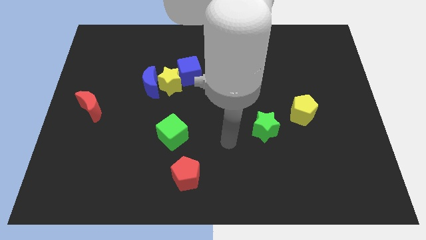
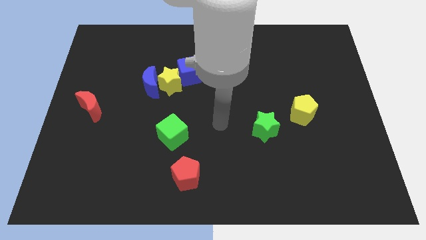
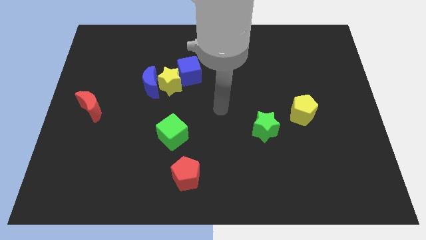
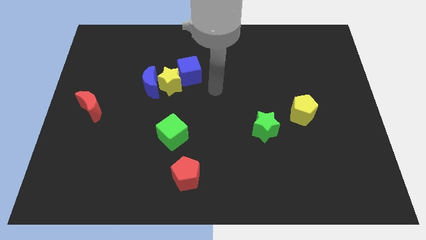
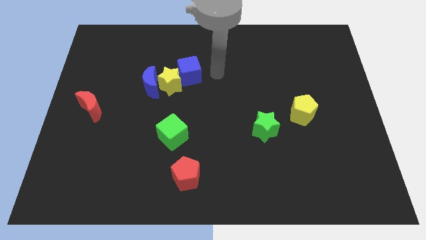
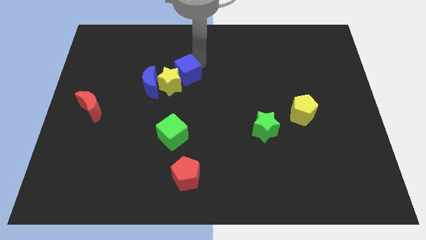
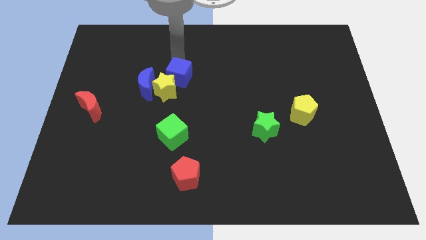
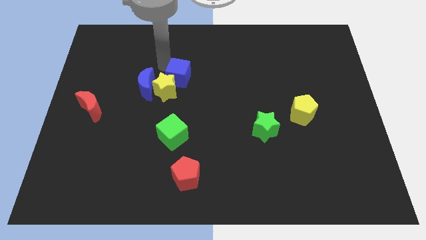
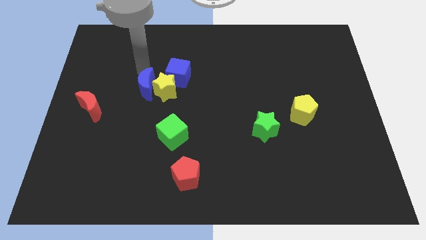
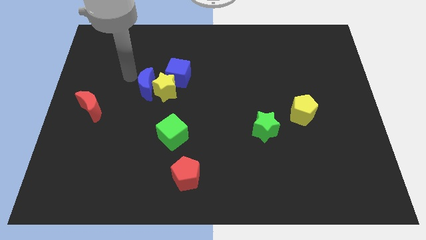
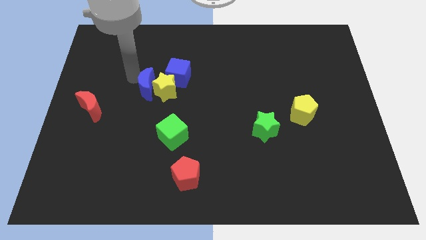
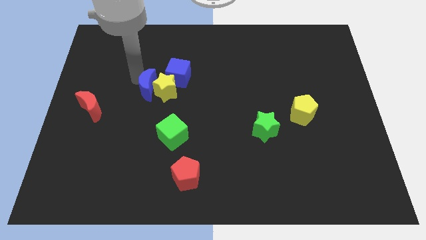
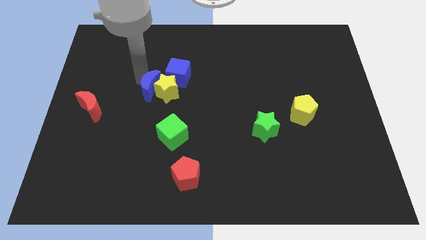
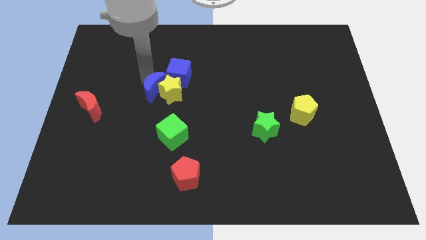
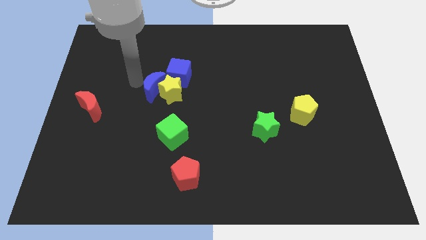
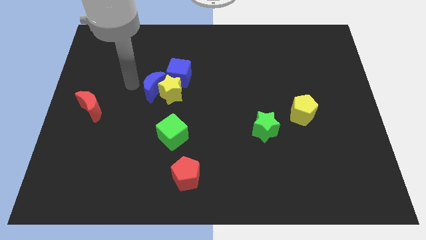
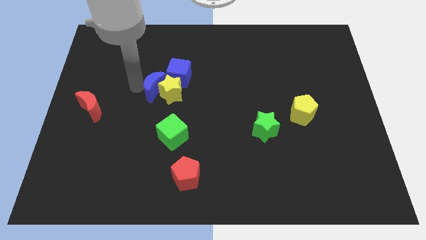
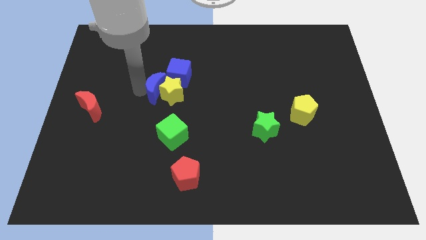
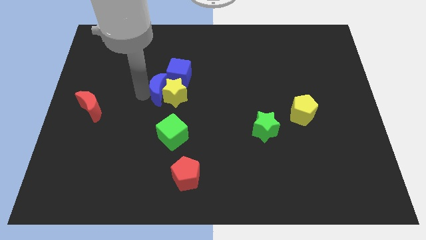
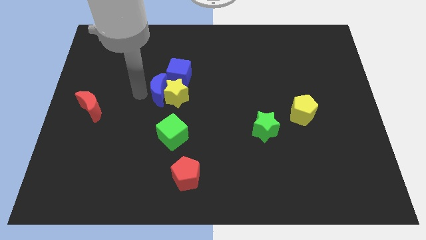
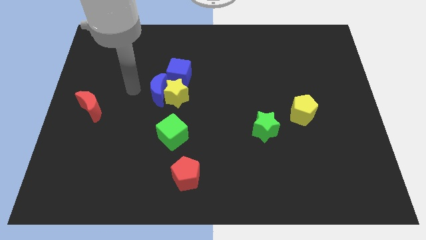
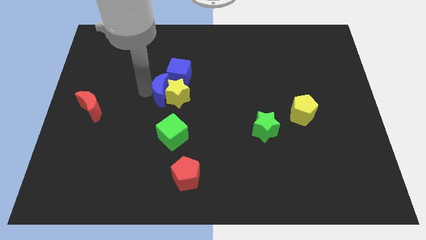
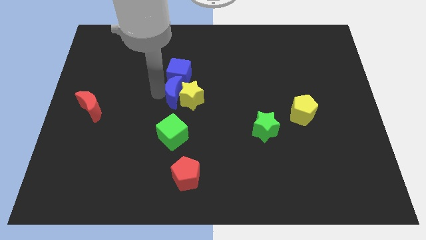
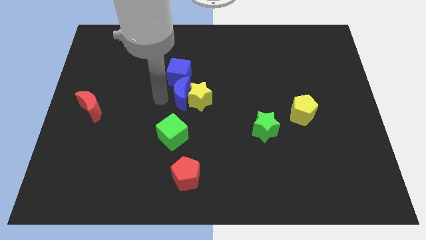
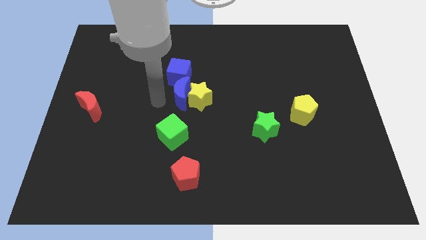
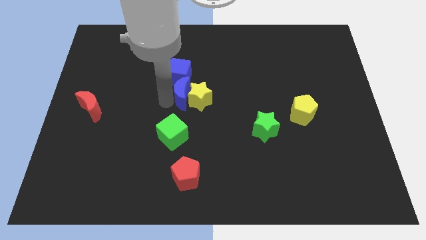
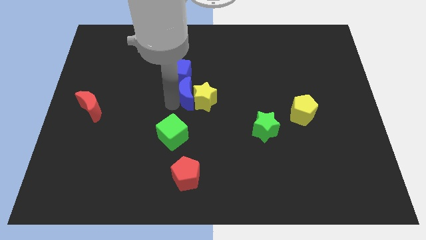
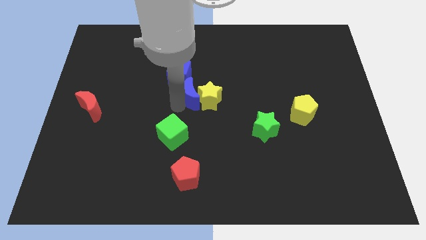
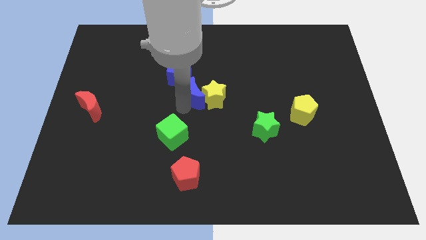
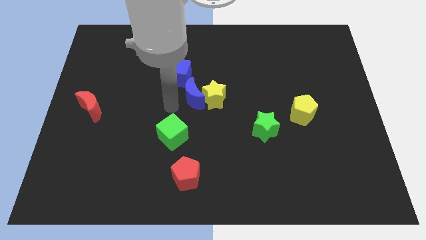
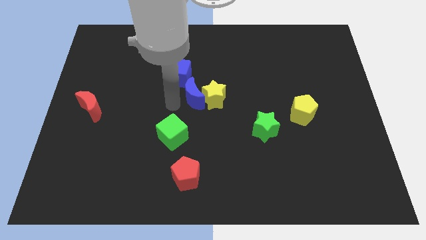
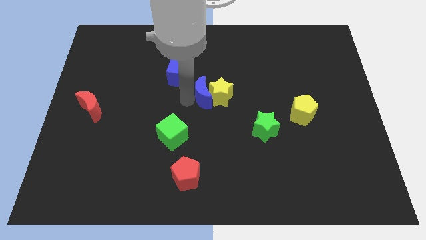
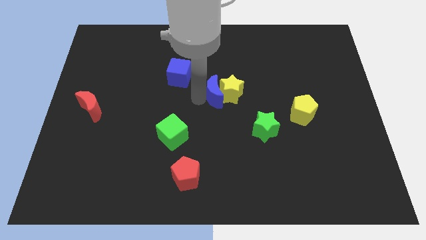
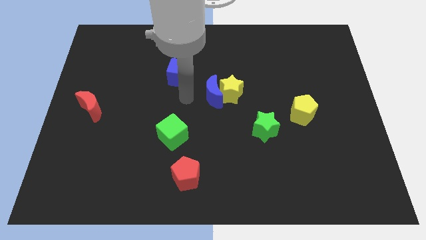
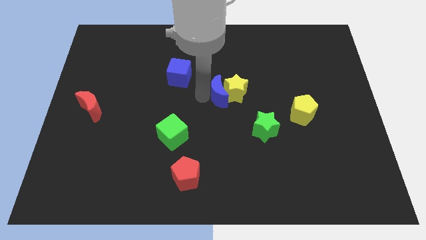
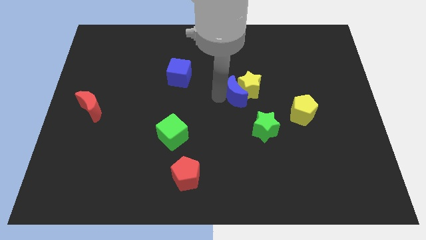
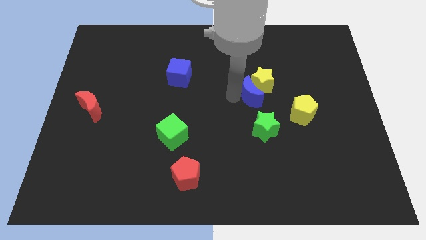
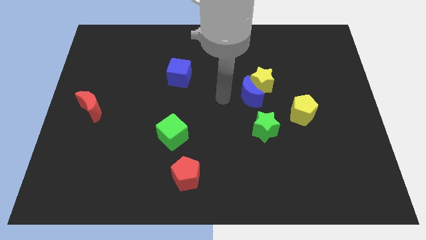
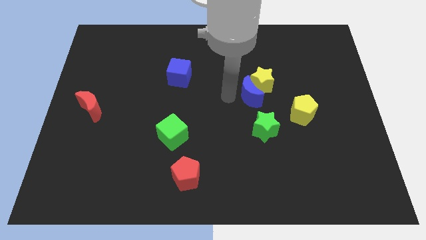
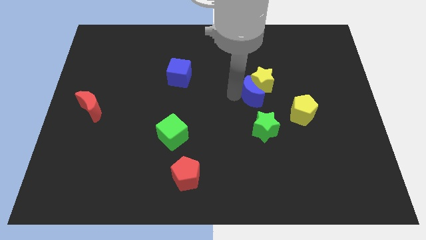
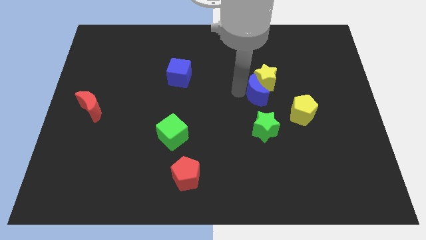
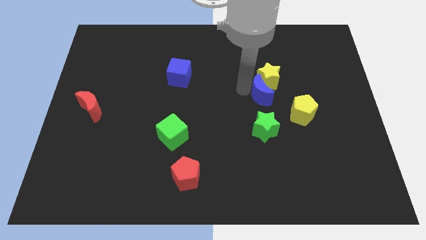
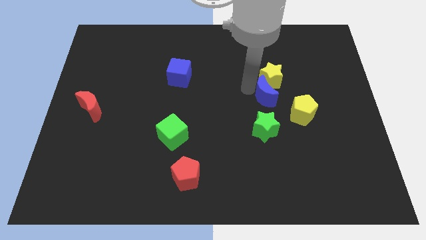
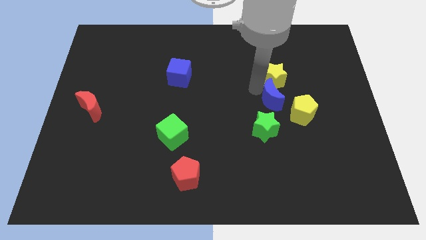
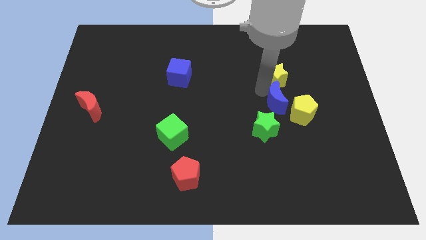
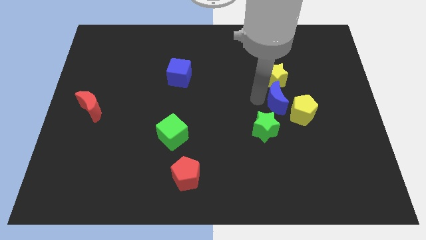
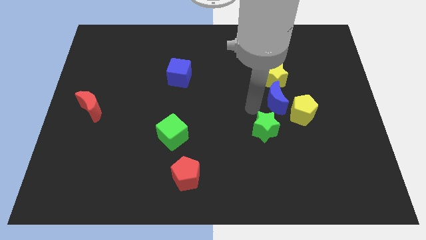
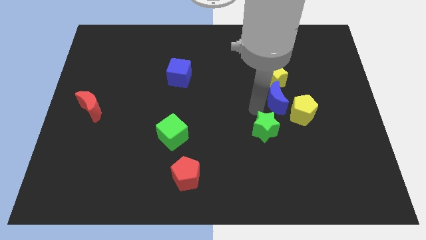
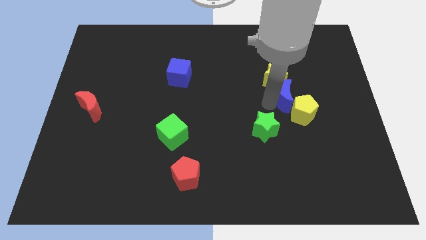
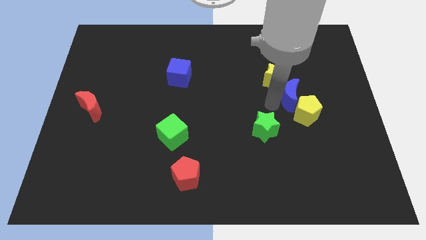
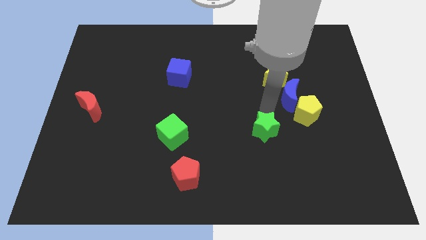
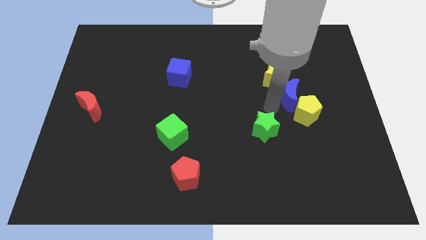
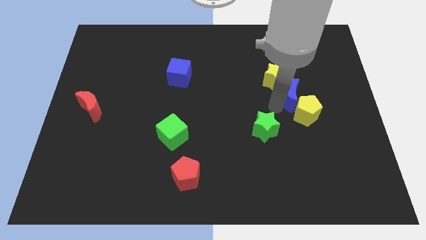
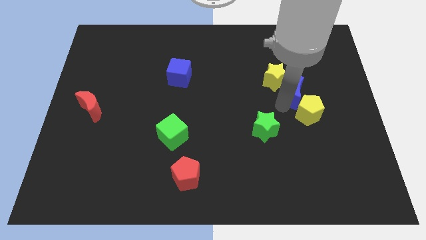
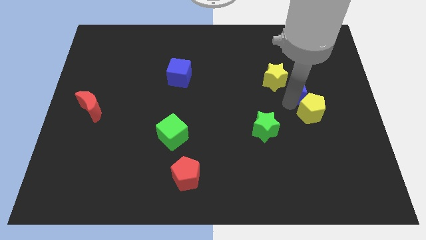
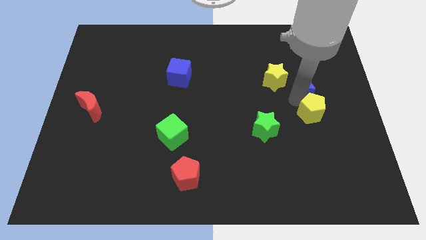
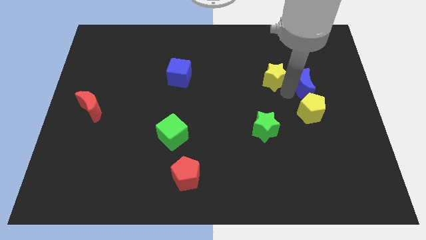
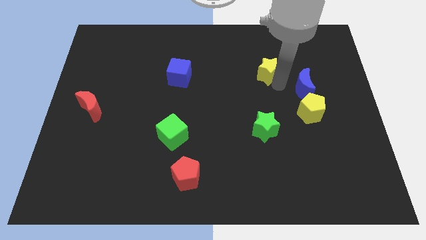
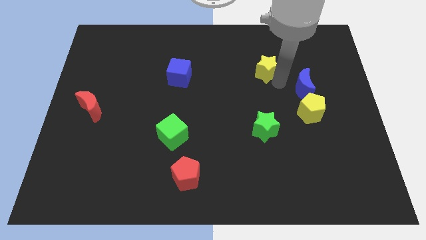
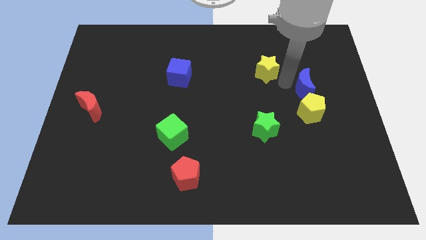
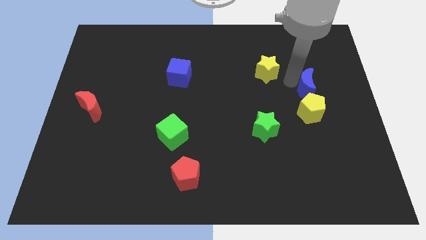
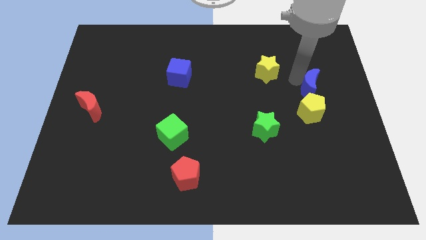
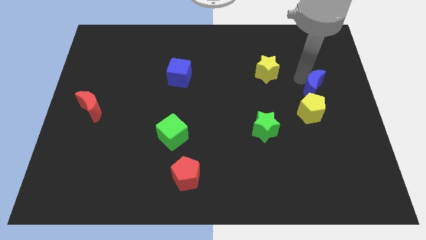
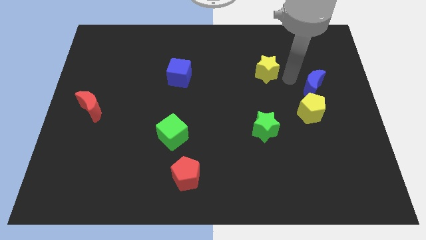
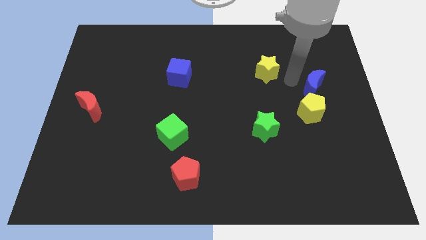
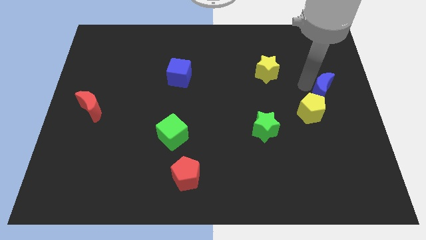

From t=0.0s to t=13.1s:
push the blue moon to the right side of the board
